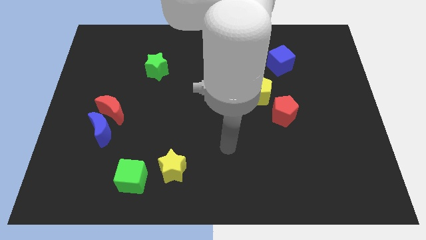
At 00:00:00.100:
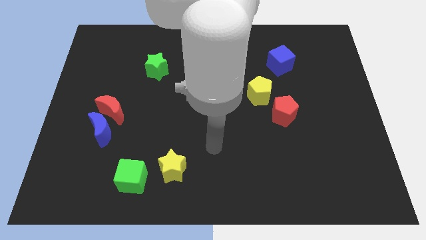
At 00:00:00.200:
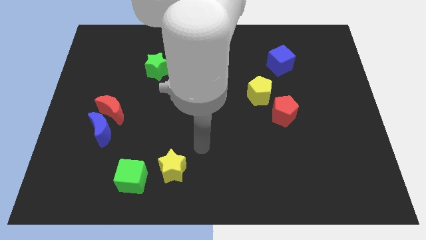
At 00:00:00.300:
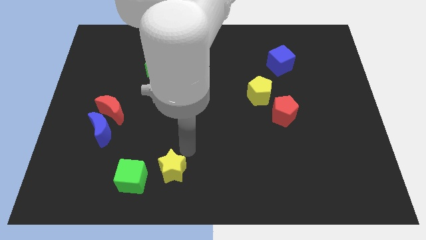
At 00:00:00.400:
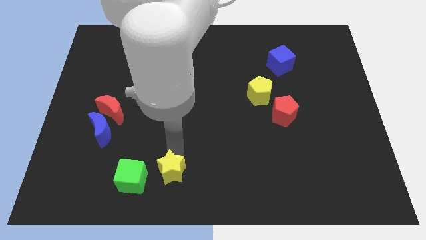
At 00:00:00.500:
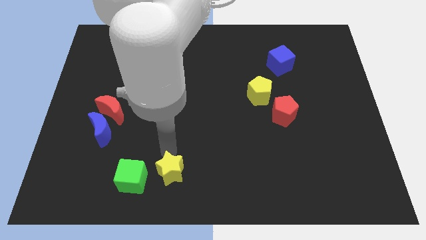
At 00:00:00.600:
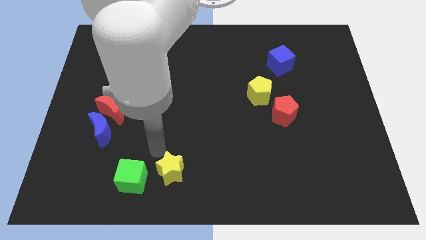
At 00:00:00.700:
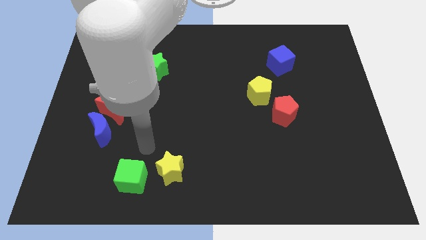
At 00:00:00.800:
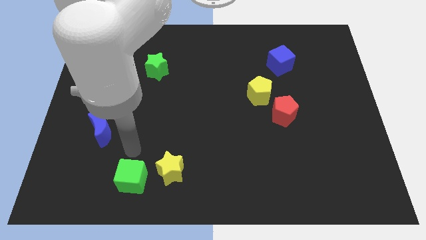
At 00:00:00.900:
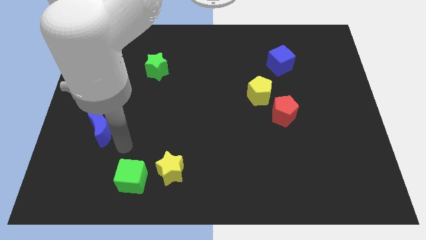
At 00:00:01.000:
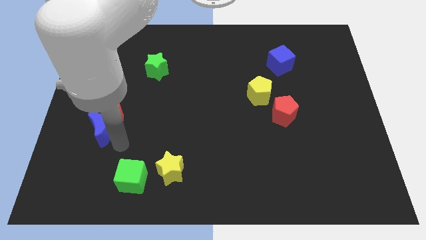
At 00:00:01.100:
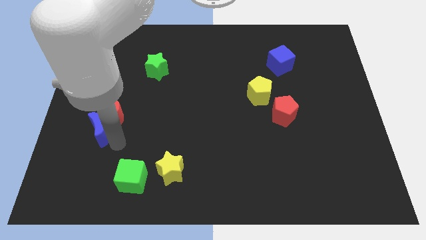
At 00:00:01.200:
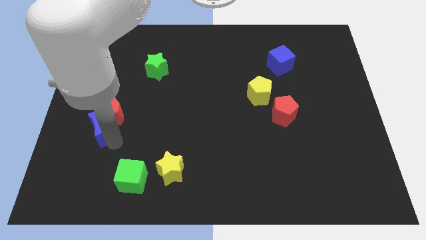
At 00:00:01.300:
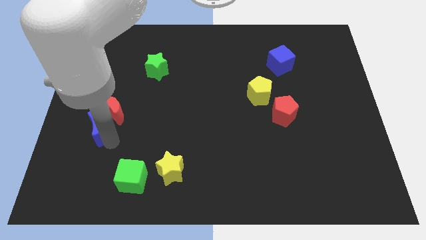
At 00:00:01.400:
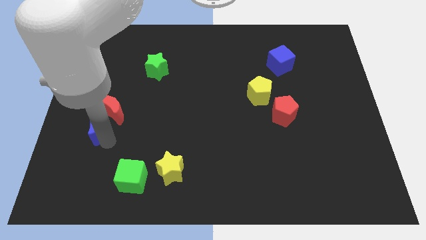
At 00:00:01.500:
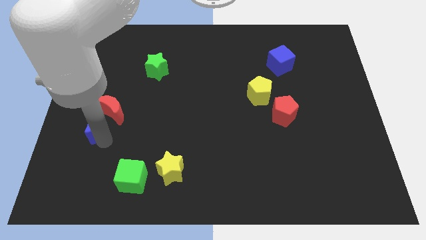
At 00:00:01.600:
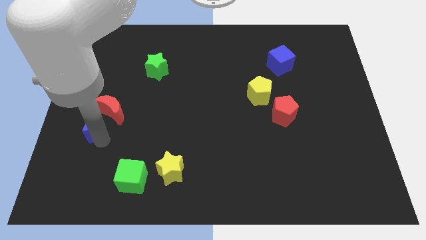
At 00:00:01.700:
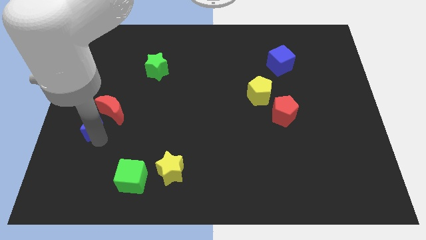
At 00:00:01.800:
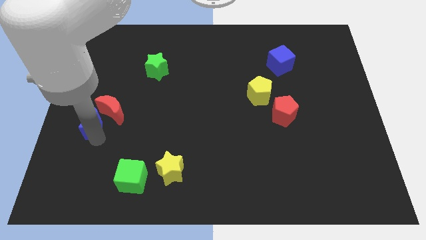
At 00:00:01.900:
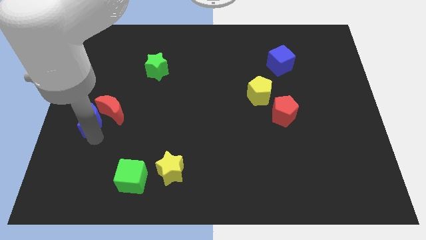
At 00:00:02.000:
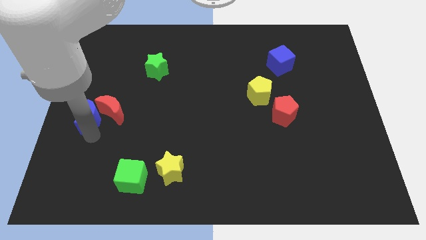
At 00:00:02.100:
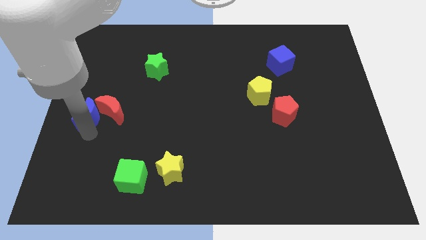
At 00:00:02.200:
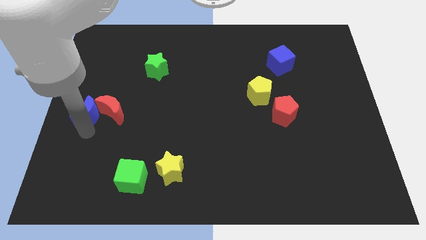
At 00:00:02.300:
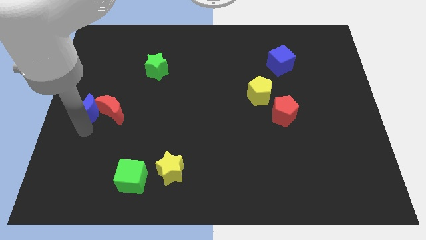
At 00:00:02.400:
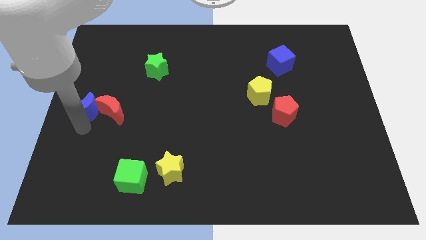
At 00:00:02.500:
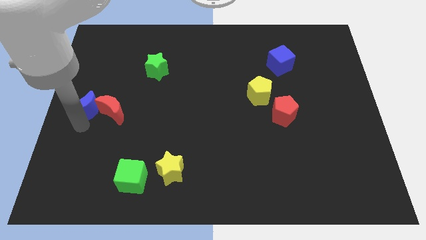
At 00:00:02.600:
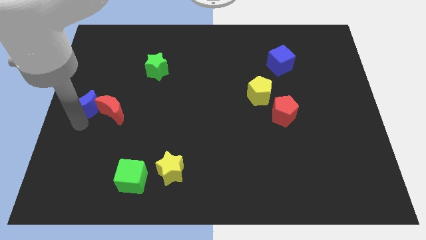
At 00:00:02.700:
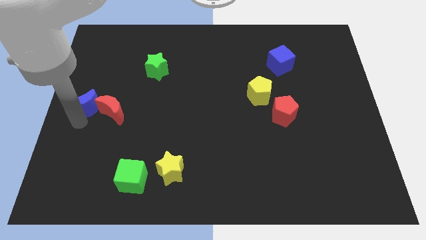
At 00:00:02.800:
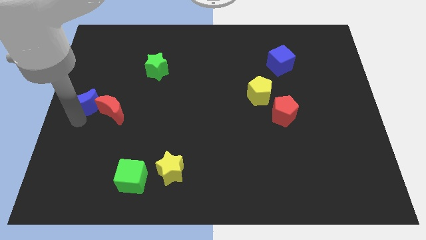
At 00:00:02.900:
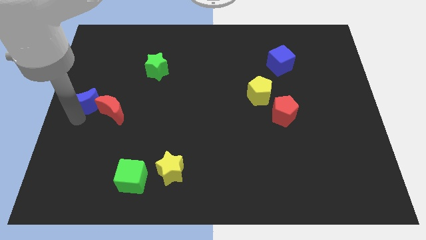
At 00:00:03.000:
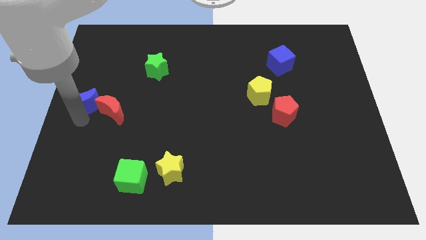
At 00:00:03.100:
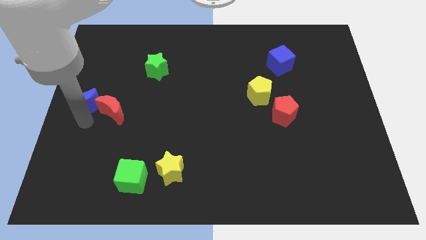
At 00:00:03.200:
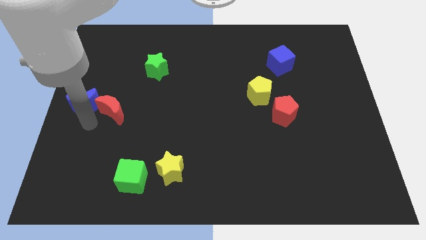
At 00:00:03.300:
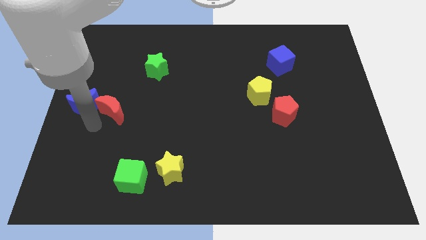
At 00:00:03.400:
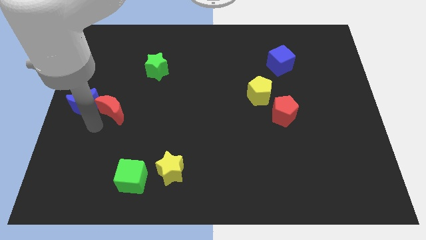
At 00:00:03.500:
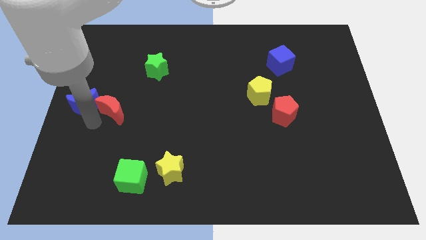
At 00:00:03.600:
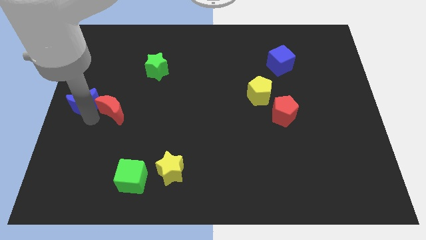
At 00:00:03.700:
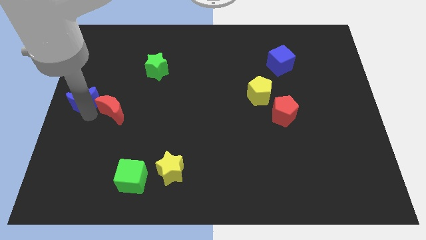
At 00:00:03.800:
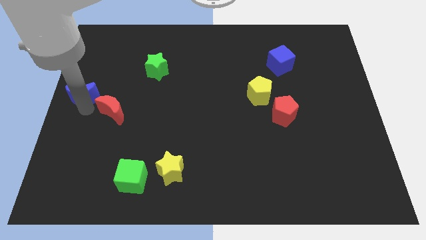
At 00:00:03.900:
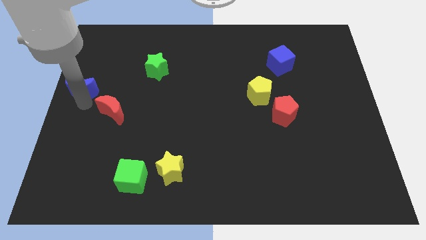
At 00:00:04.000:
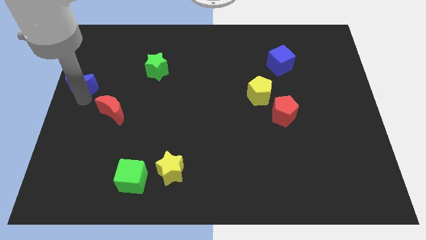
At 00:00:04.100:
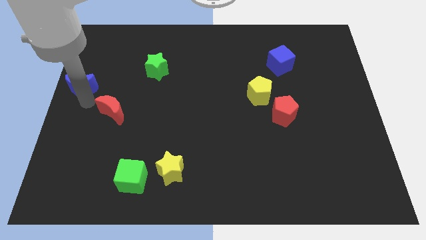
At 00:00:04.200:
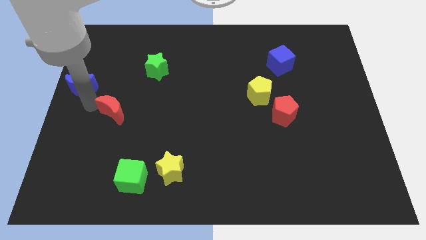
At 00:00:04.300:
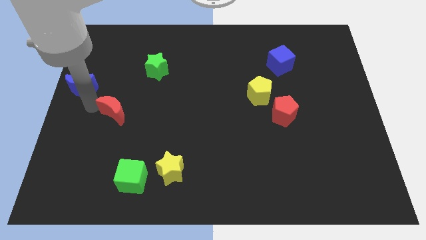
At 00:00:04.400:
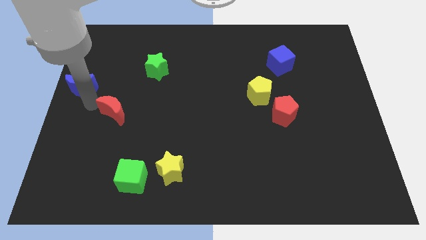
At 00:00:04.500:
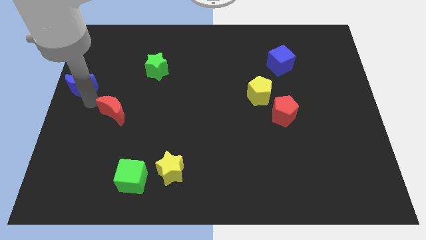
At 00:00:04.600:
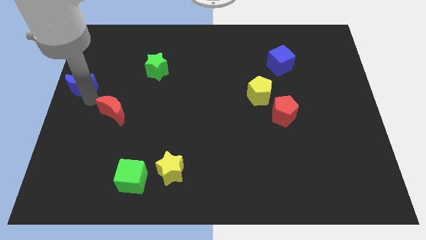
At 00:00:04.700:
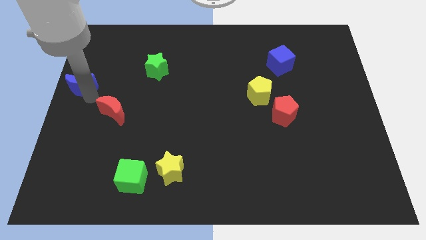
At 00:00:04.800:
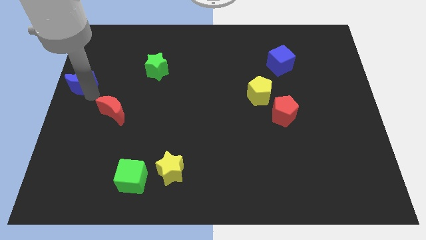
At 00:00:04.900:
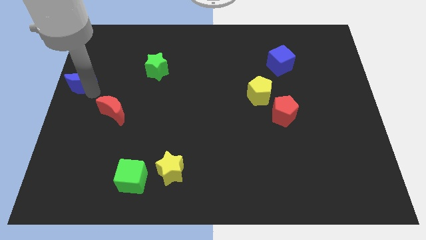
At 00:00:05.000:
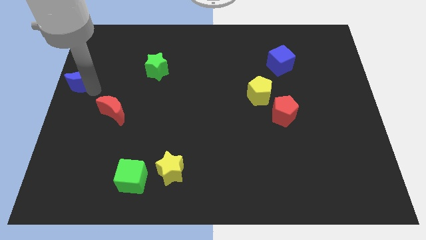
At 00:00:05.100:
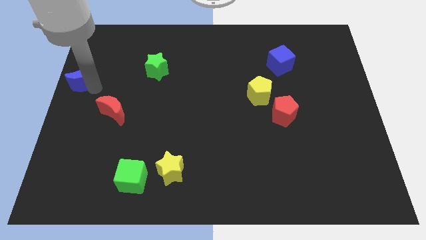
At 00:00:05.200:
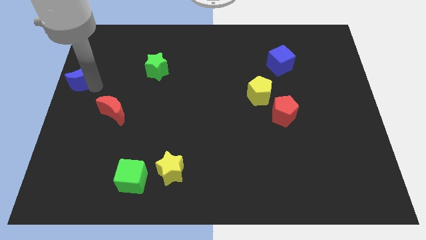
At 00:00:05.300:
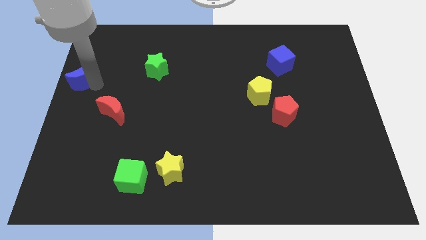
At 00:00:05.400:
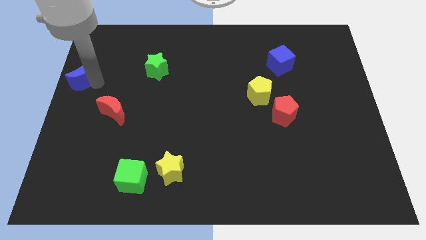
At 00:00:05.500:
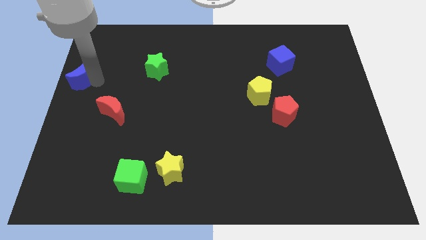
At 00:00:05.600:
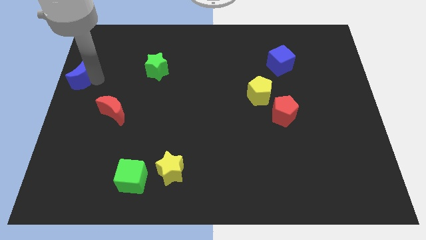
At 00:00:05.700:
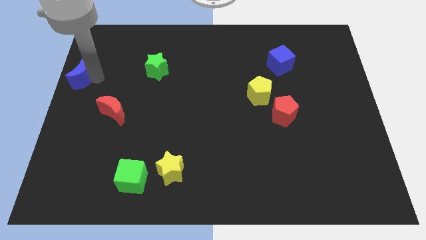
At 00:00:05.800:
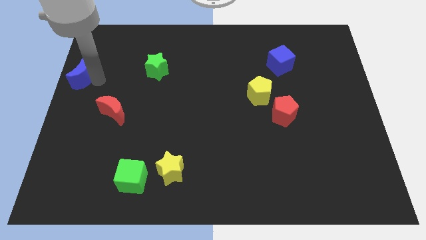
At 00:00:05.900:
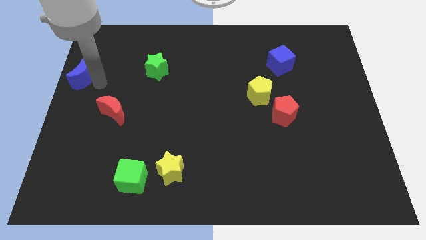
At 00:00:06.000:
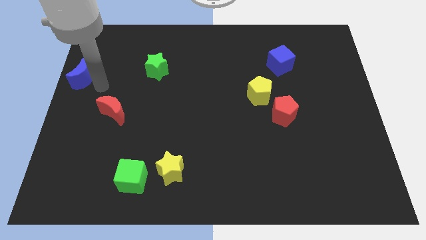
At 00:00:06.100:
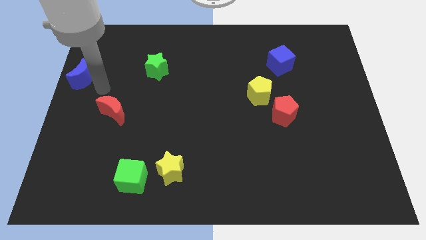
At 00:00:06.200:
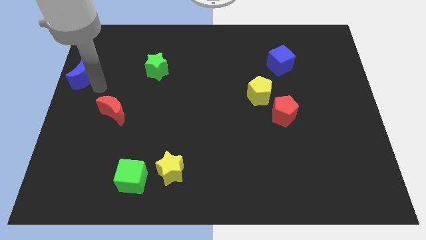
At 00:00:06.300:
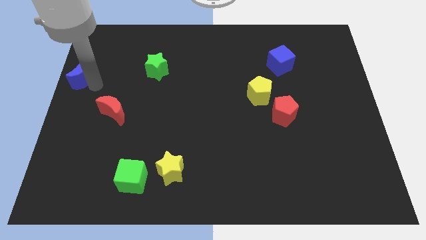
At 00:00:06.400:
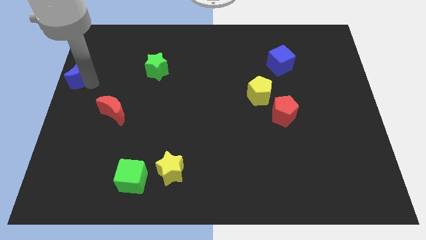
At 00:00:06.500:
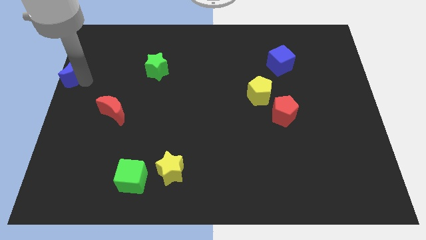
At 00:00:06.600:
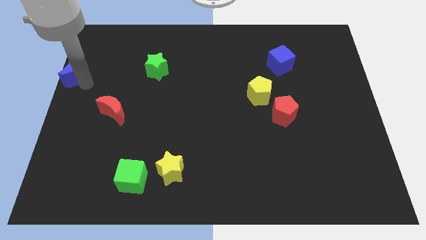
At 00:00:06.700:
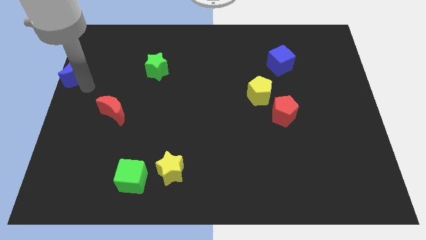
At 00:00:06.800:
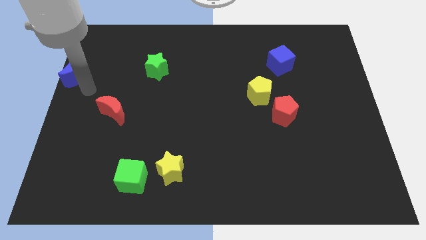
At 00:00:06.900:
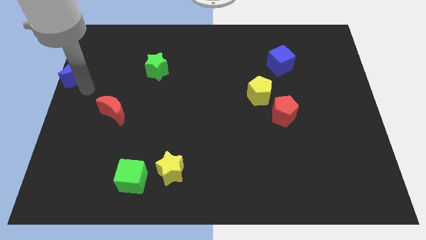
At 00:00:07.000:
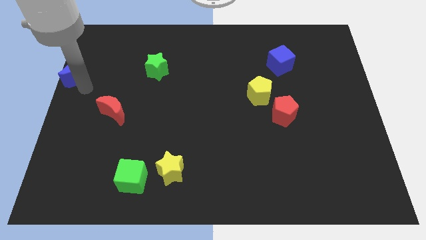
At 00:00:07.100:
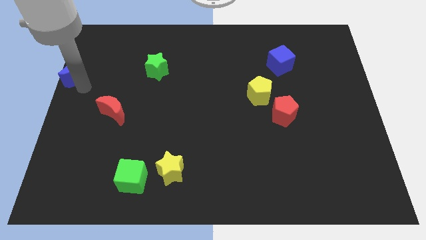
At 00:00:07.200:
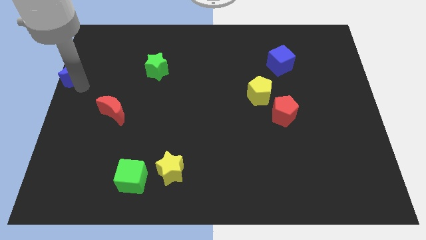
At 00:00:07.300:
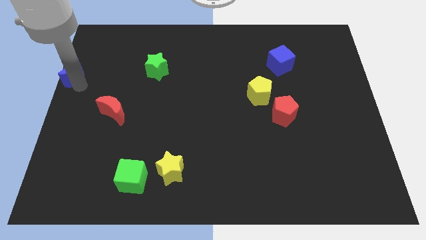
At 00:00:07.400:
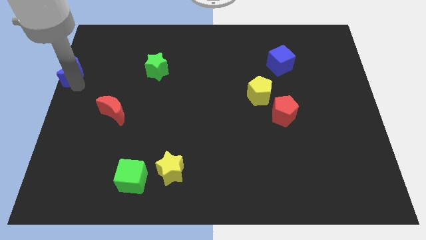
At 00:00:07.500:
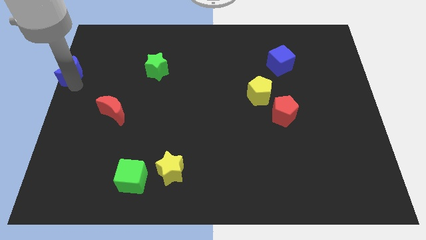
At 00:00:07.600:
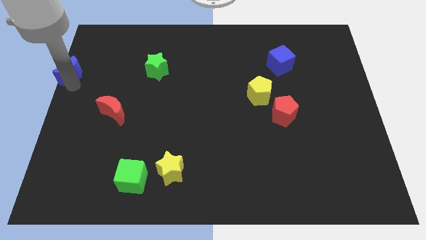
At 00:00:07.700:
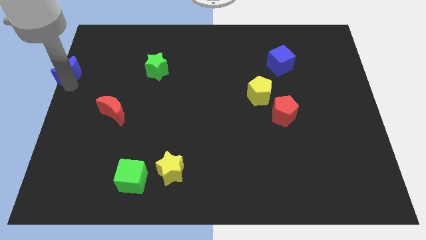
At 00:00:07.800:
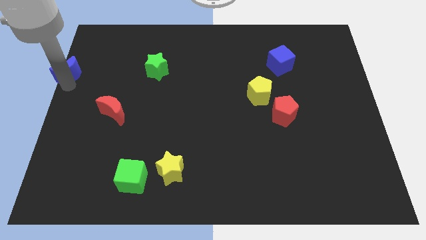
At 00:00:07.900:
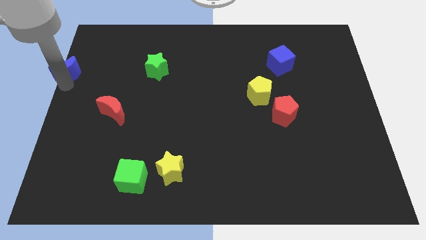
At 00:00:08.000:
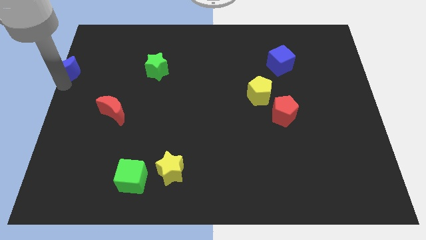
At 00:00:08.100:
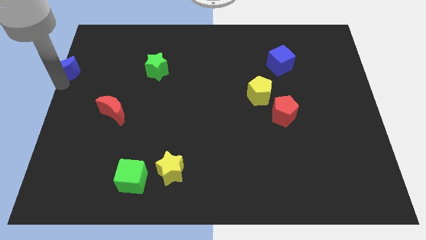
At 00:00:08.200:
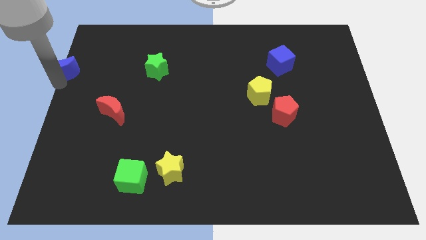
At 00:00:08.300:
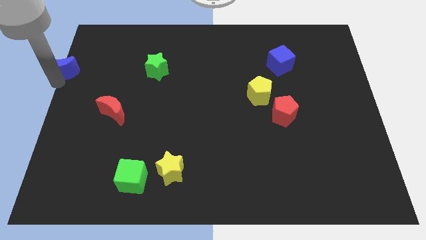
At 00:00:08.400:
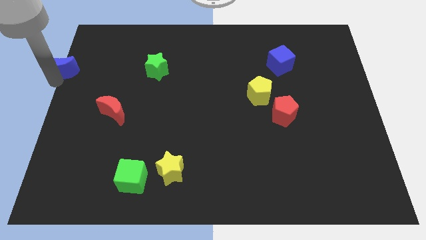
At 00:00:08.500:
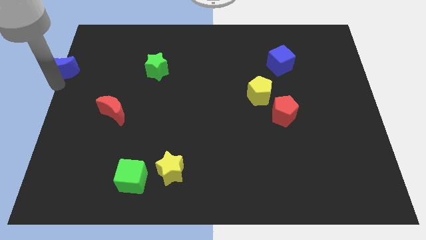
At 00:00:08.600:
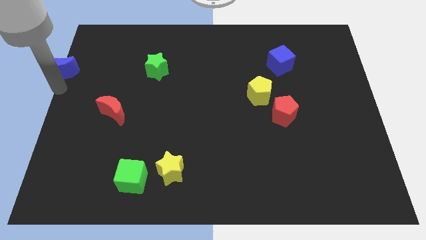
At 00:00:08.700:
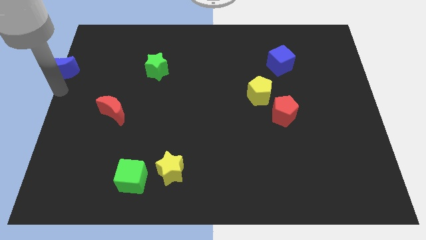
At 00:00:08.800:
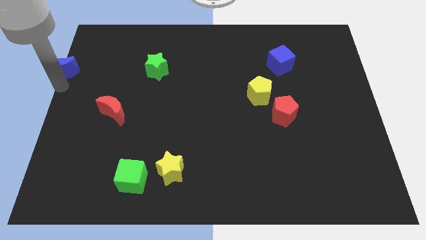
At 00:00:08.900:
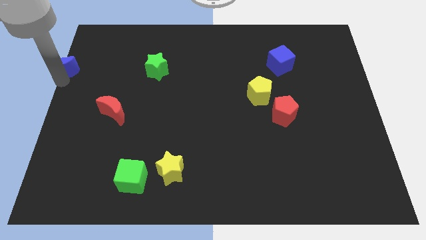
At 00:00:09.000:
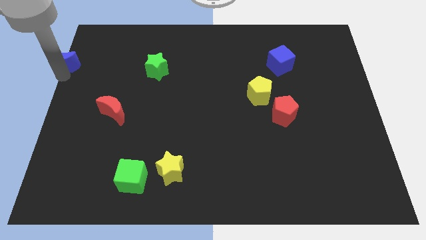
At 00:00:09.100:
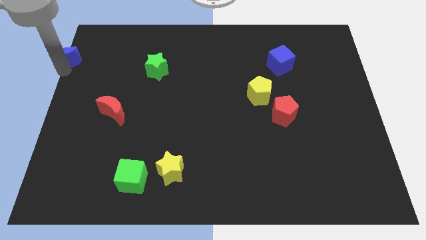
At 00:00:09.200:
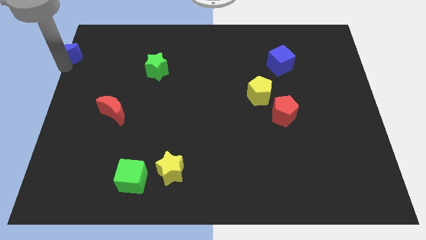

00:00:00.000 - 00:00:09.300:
slide the blue moon to the upper left corner
